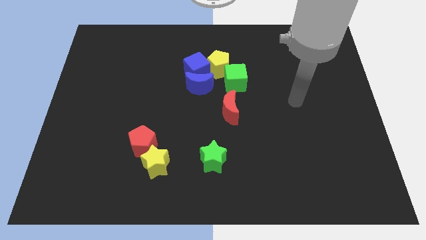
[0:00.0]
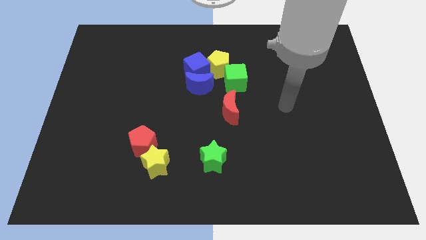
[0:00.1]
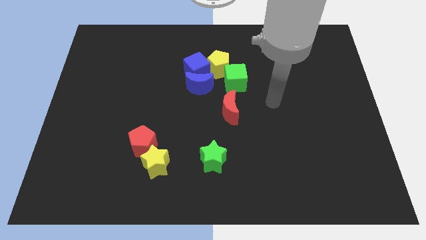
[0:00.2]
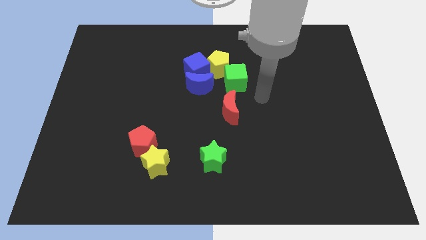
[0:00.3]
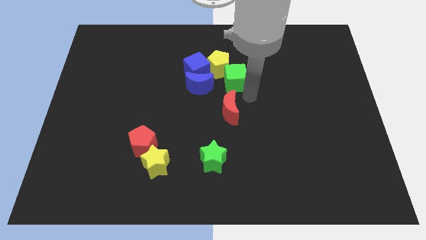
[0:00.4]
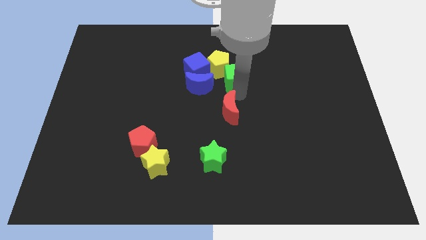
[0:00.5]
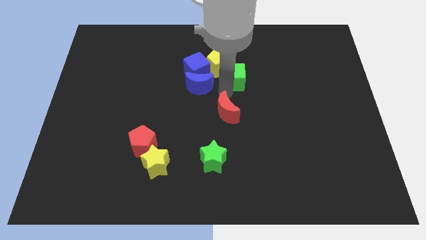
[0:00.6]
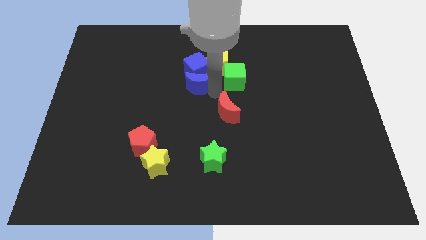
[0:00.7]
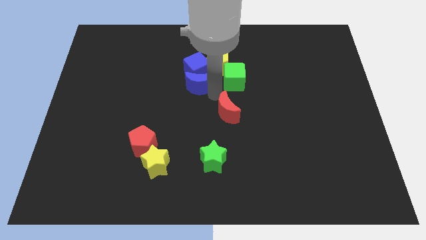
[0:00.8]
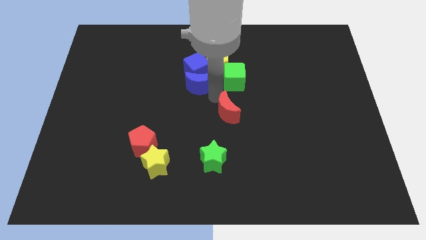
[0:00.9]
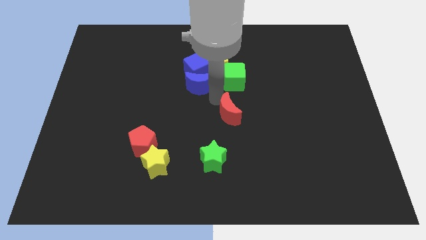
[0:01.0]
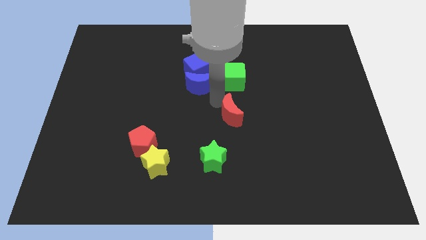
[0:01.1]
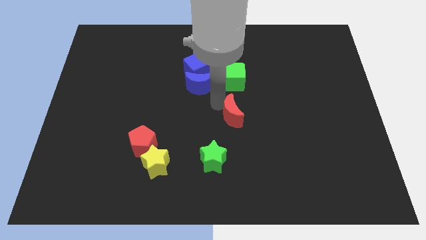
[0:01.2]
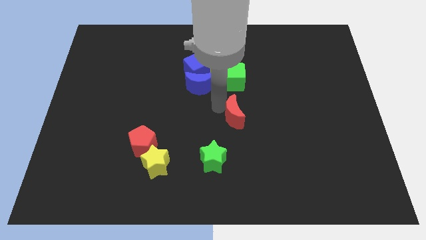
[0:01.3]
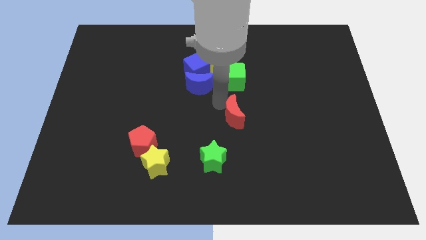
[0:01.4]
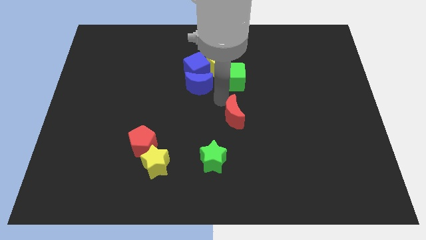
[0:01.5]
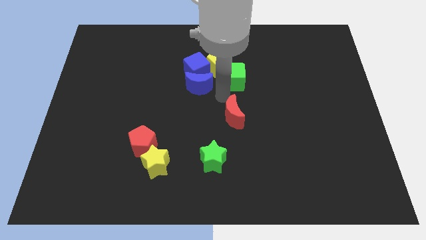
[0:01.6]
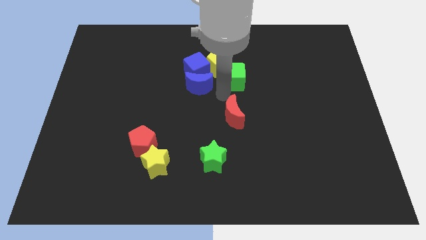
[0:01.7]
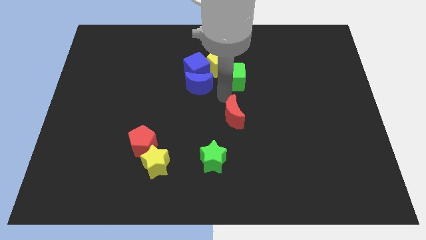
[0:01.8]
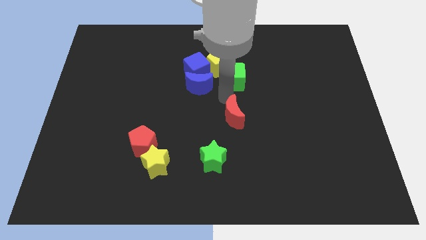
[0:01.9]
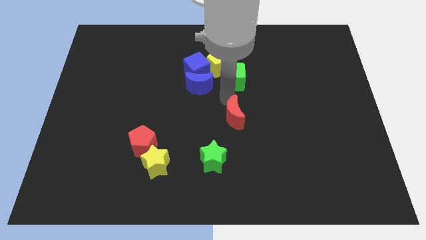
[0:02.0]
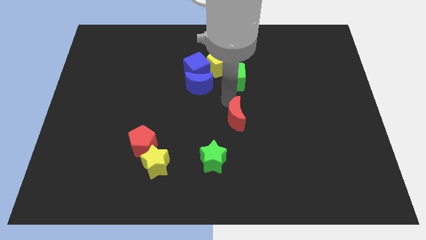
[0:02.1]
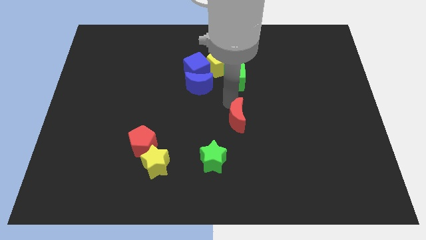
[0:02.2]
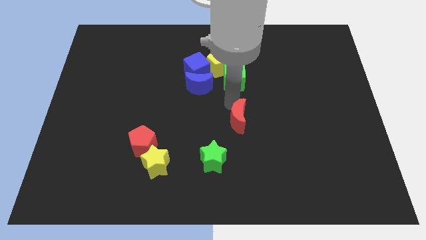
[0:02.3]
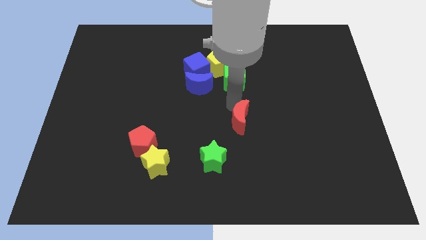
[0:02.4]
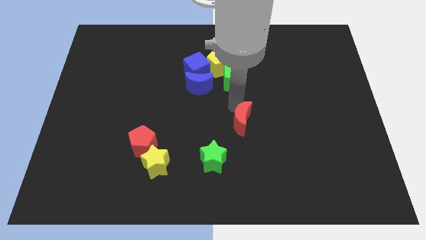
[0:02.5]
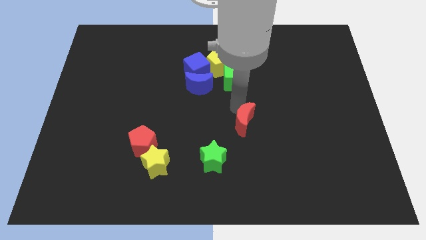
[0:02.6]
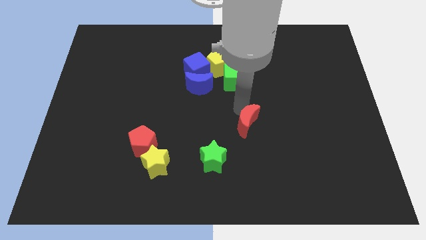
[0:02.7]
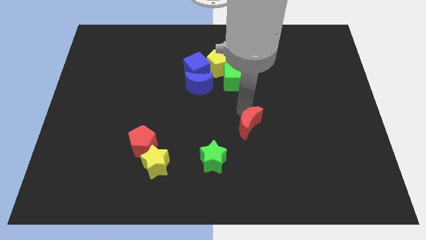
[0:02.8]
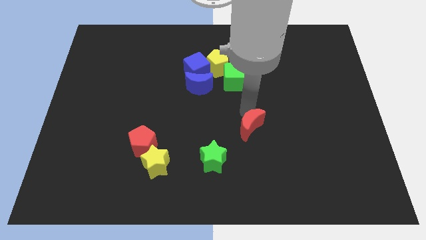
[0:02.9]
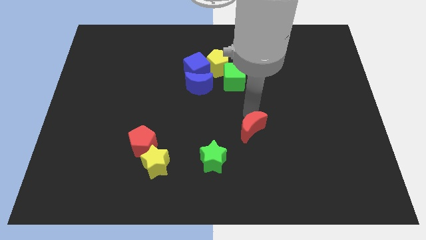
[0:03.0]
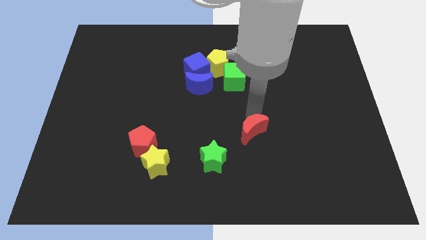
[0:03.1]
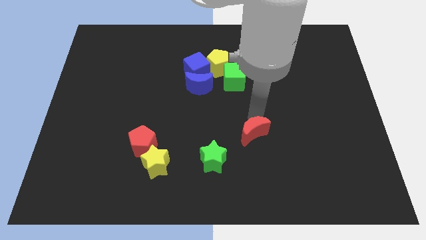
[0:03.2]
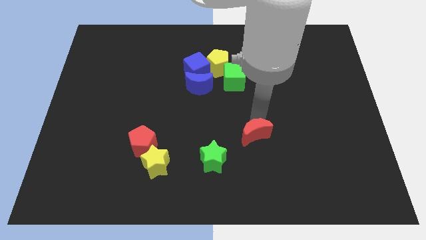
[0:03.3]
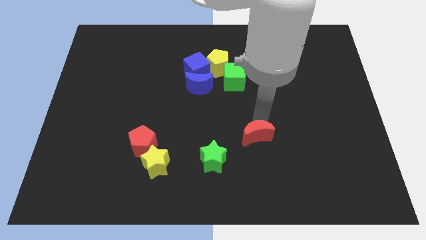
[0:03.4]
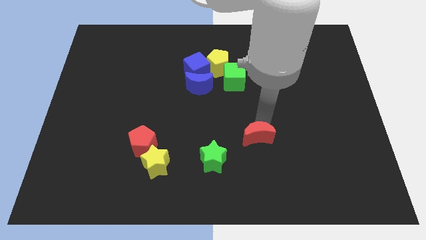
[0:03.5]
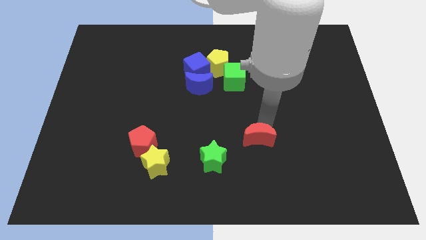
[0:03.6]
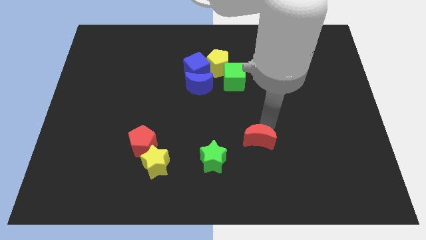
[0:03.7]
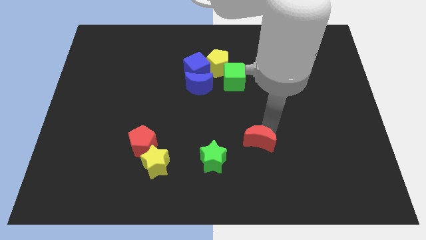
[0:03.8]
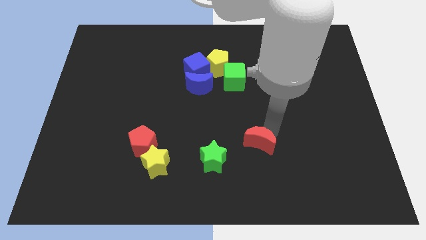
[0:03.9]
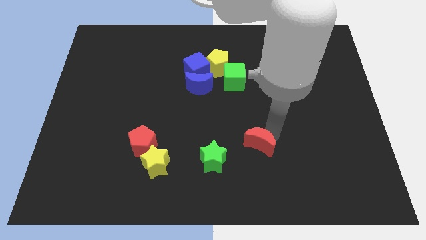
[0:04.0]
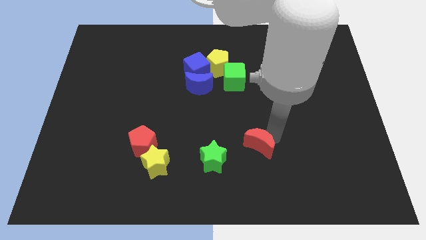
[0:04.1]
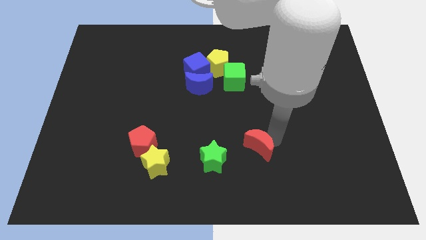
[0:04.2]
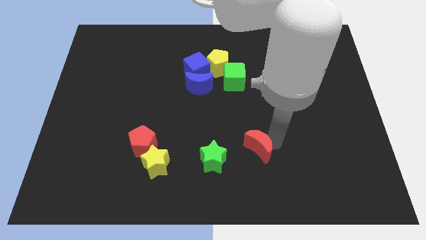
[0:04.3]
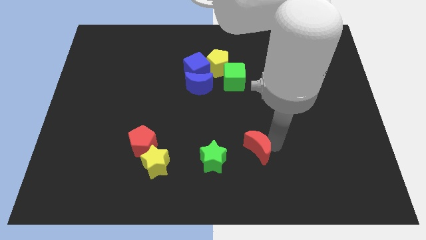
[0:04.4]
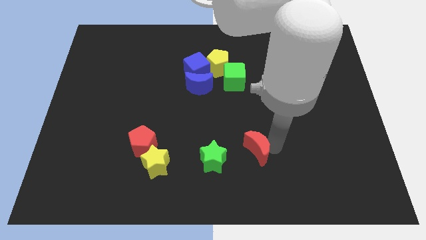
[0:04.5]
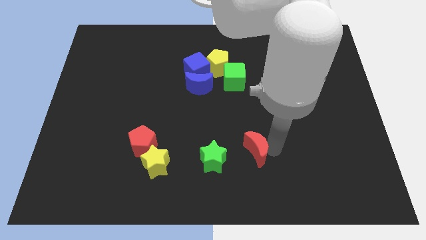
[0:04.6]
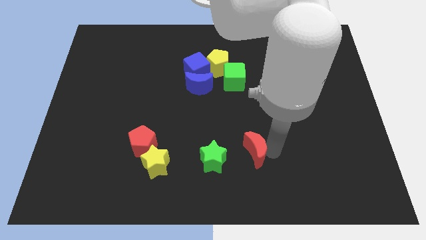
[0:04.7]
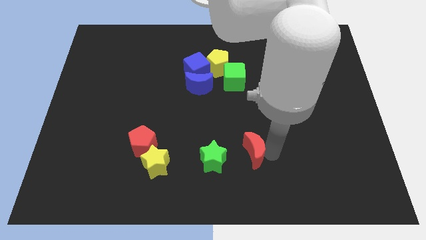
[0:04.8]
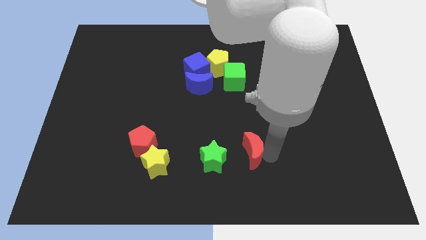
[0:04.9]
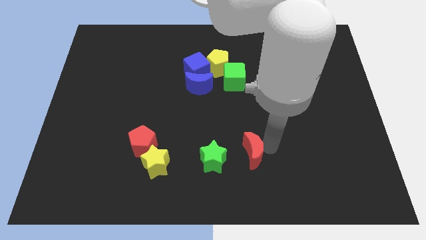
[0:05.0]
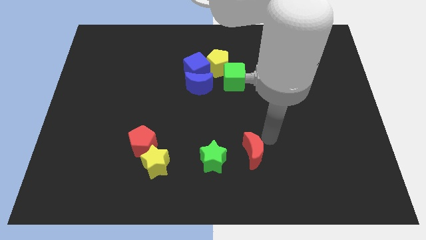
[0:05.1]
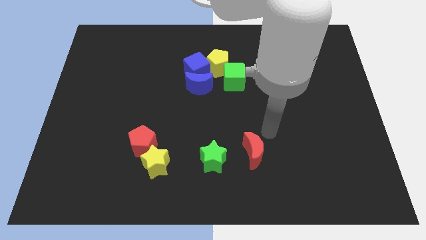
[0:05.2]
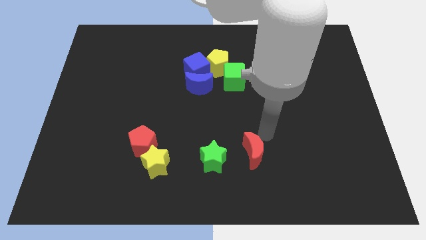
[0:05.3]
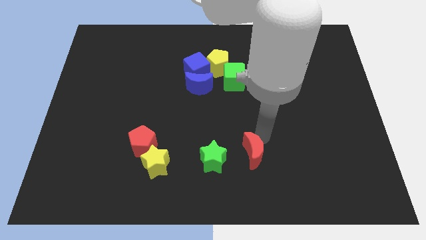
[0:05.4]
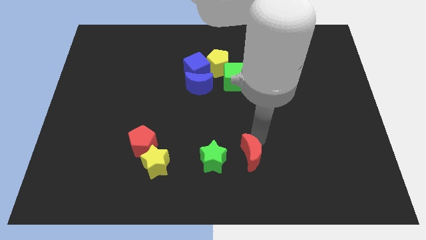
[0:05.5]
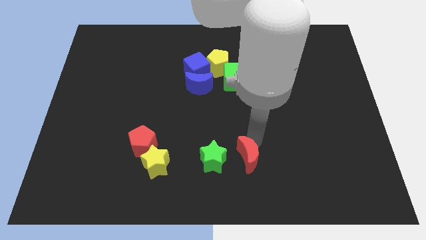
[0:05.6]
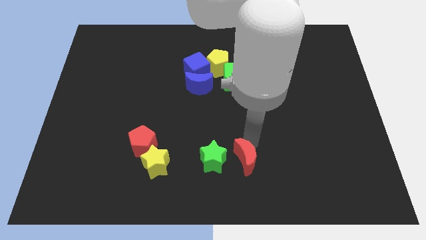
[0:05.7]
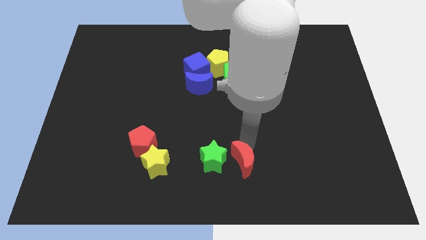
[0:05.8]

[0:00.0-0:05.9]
slide the red moon to the bottom
